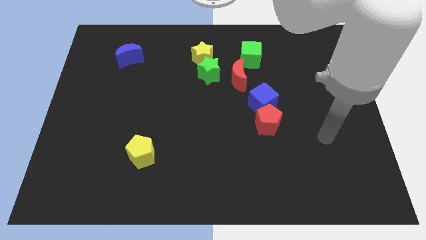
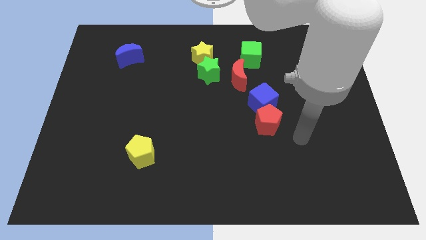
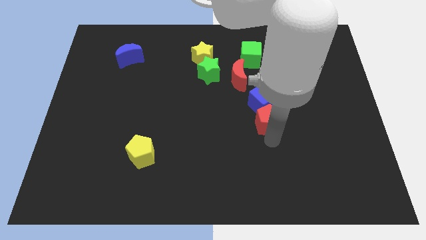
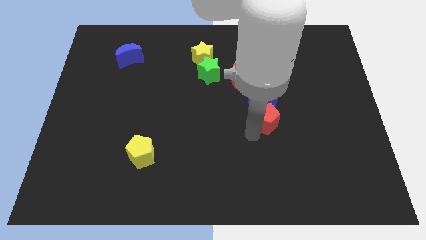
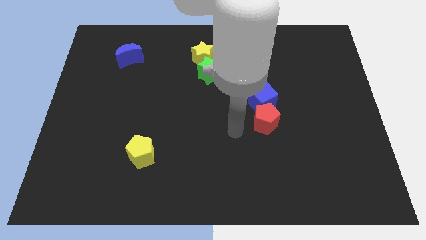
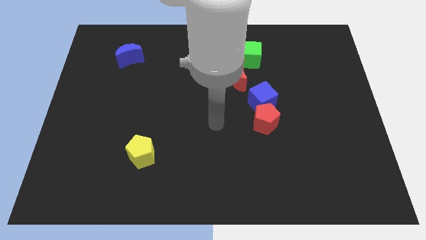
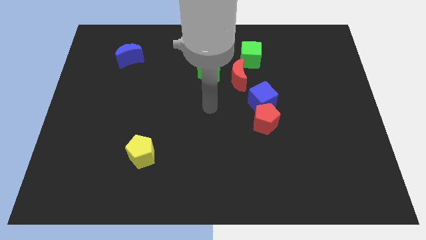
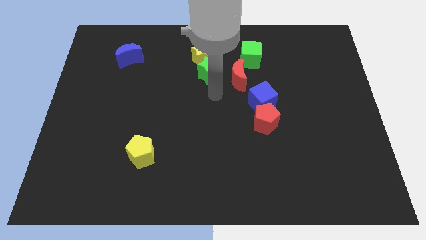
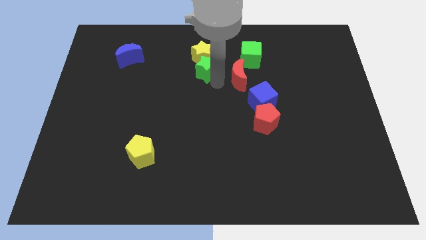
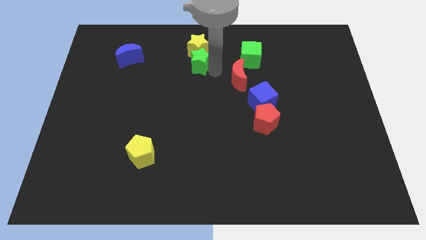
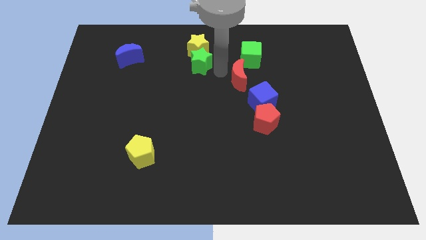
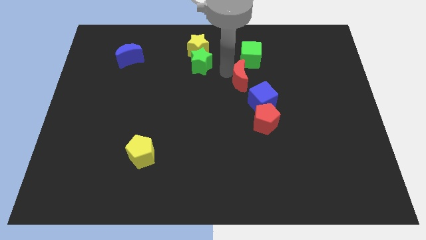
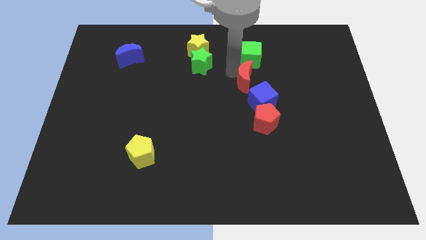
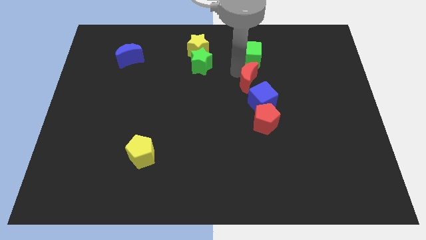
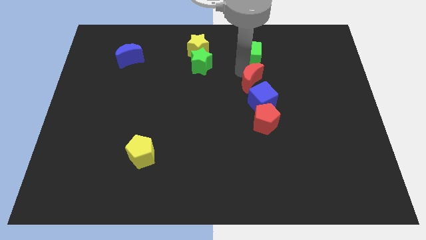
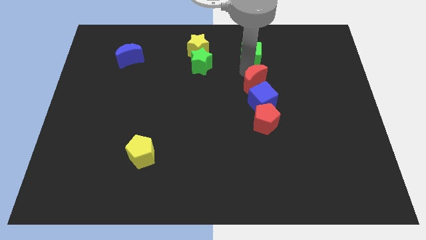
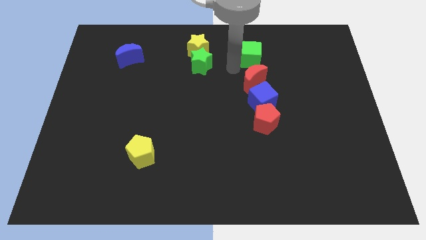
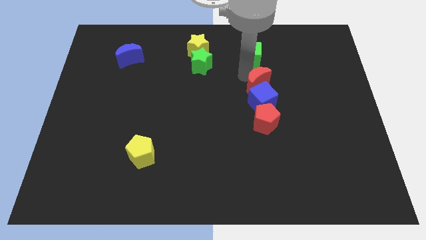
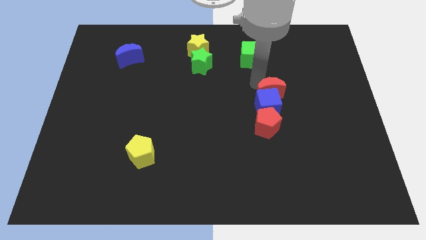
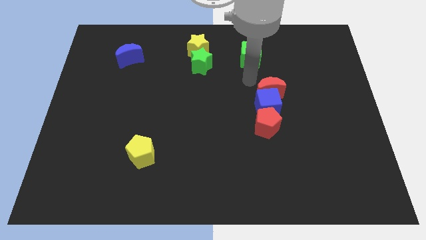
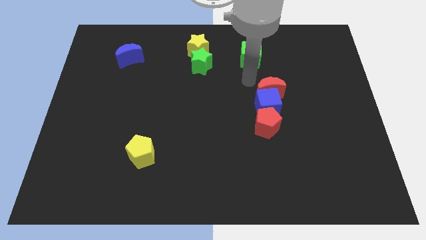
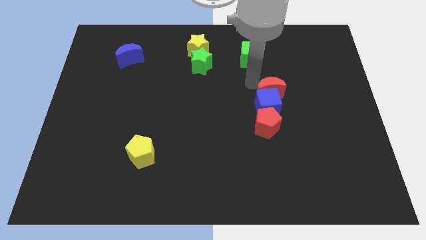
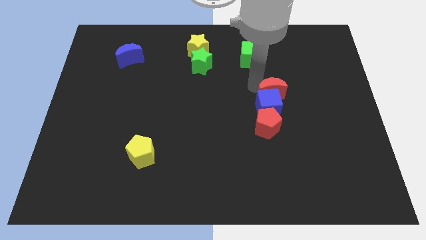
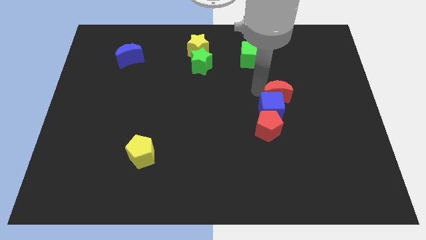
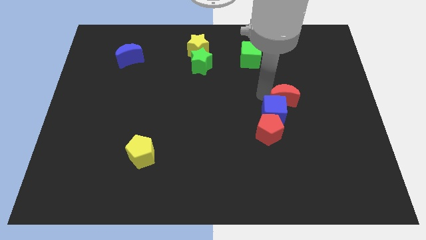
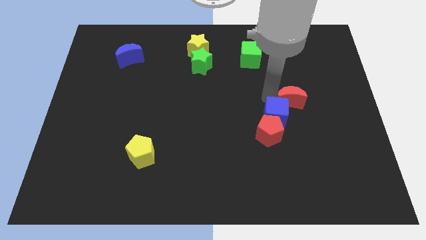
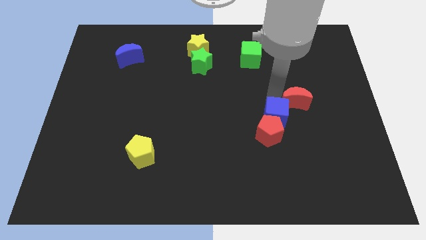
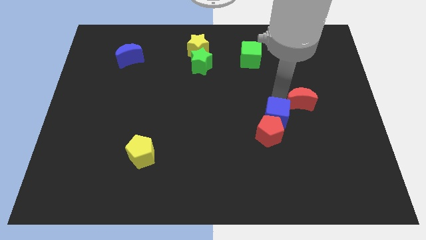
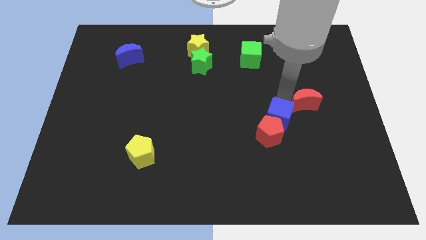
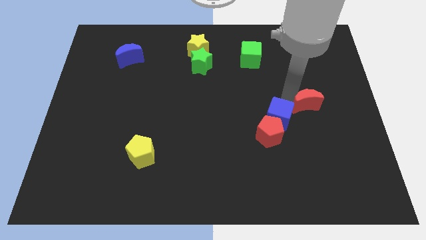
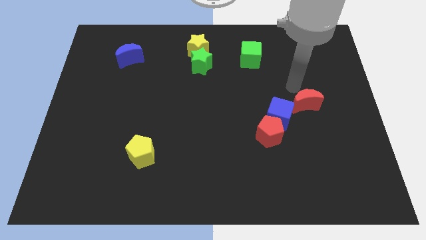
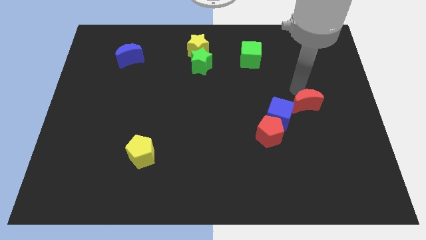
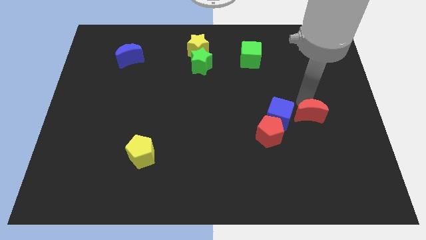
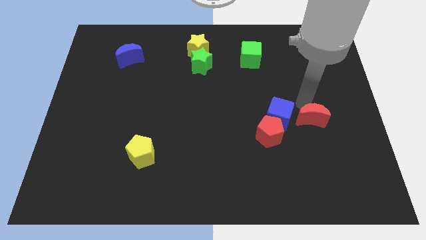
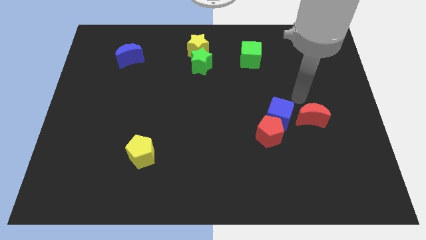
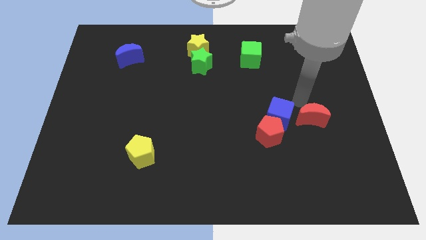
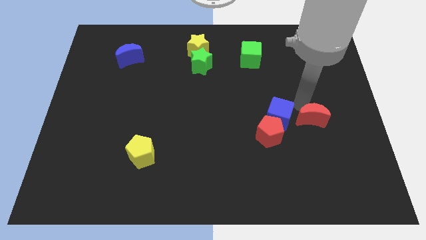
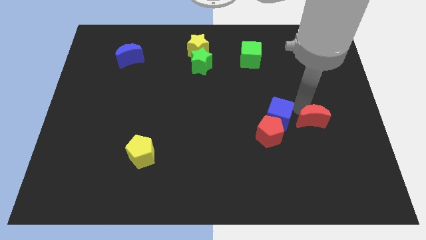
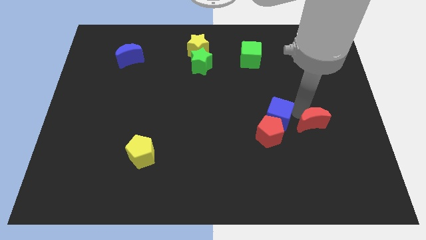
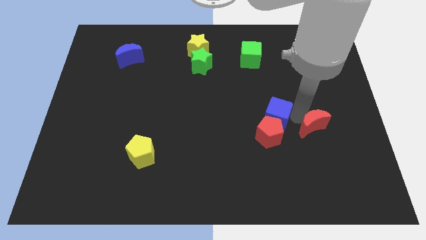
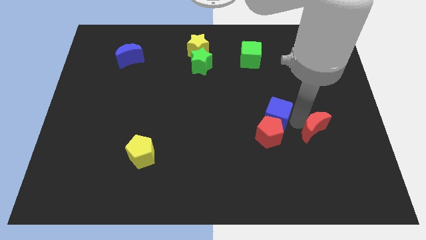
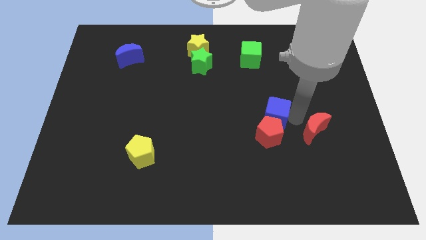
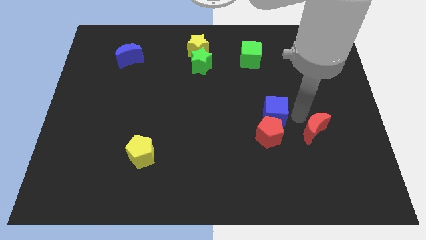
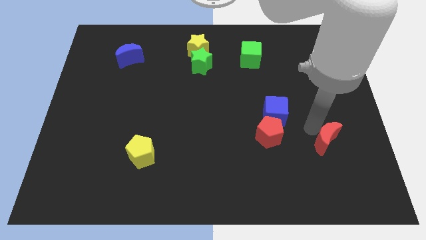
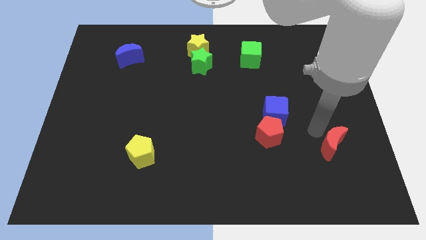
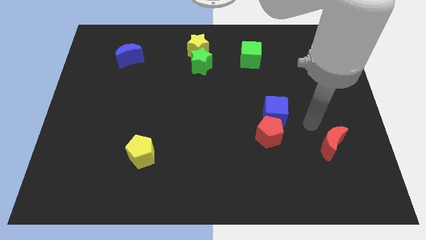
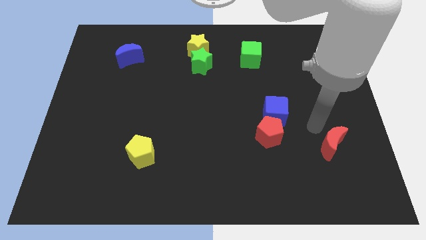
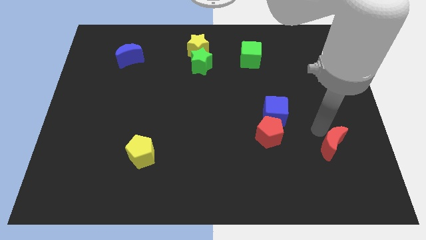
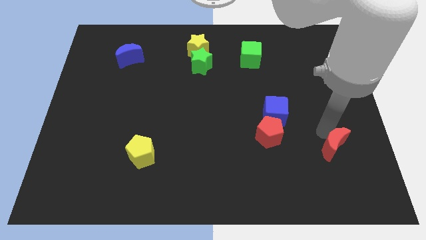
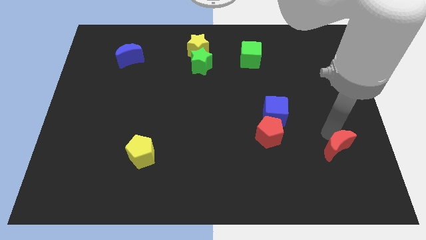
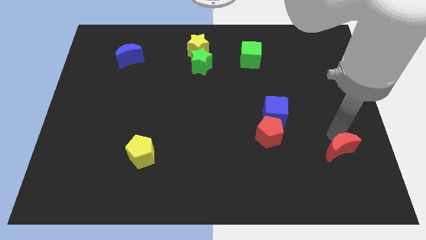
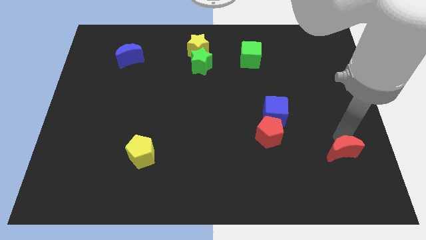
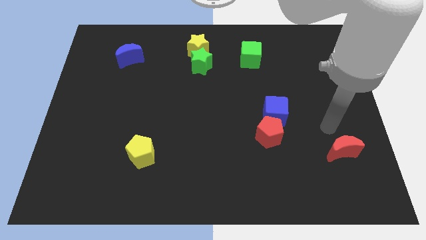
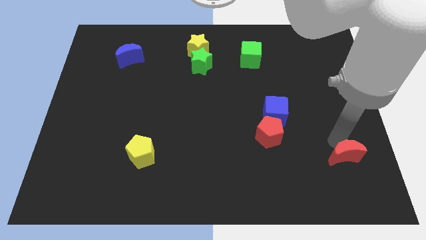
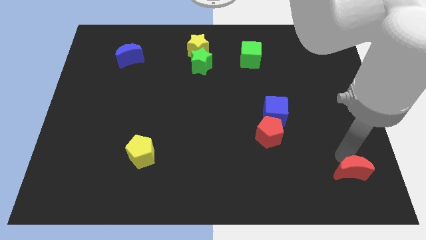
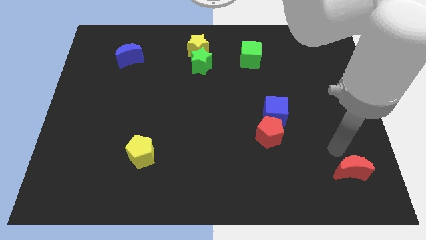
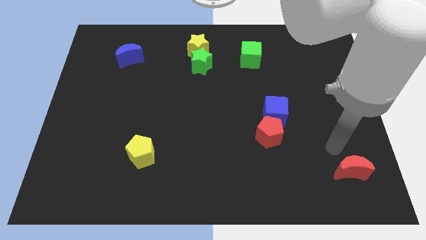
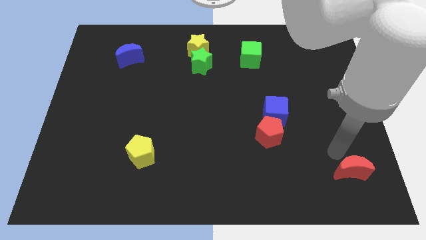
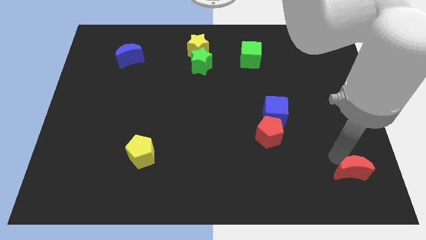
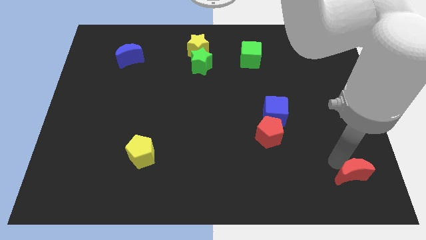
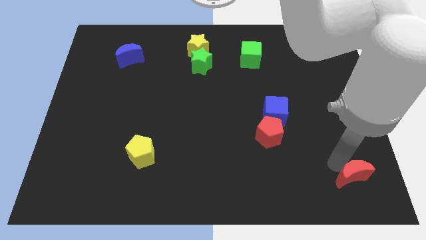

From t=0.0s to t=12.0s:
push the red moon to the bottom right

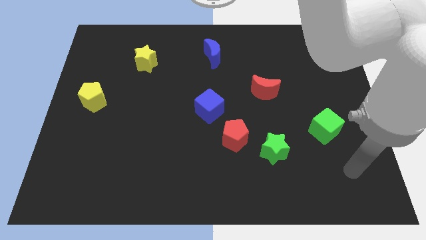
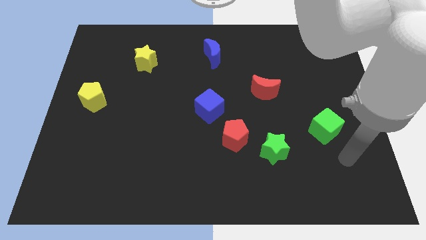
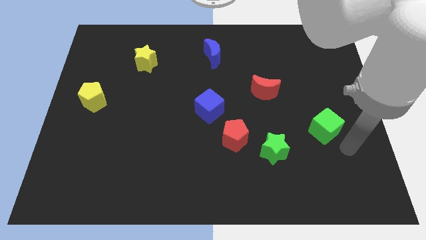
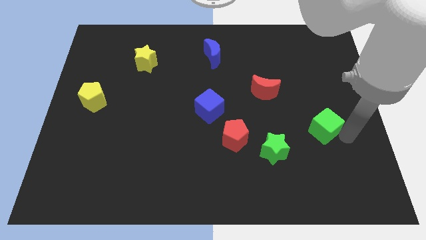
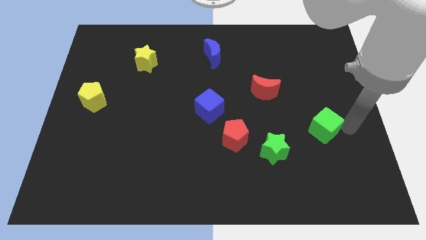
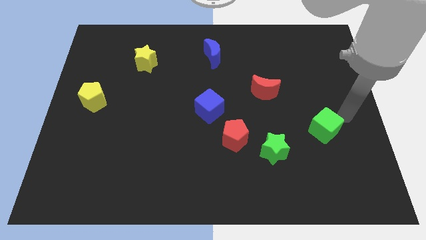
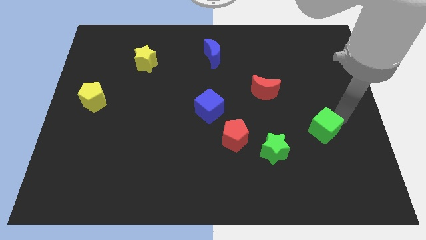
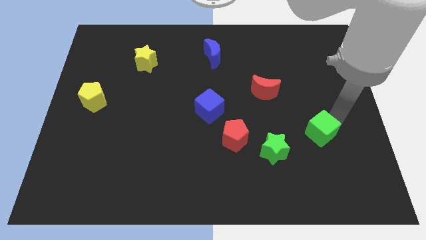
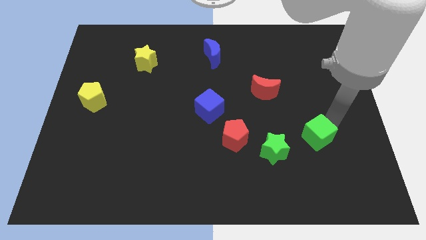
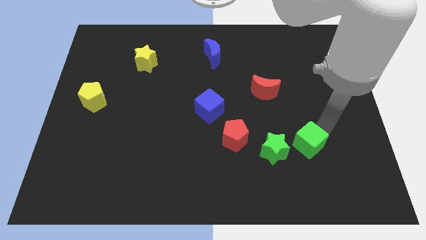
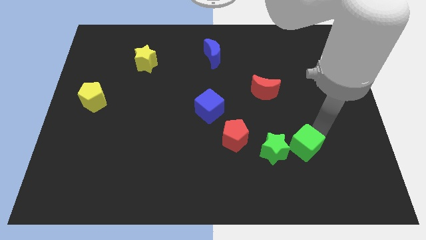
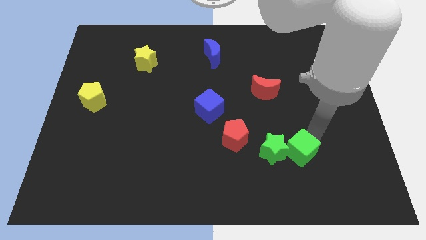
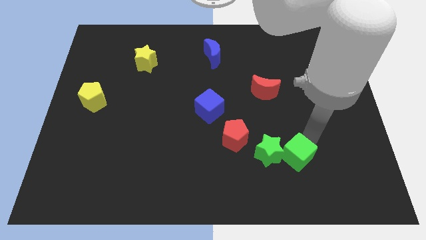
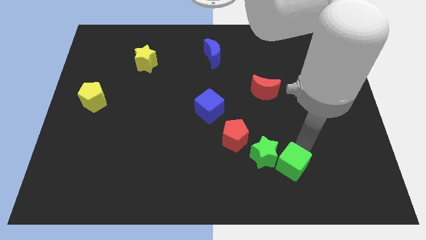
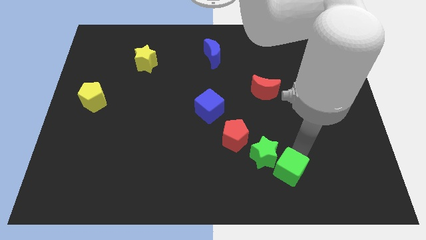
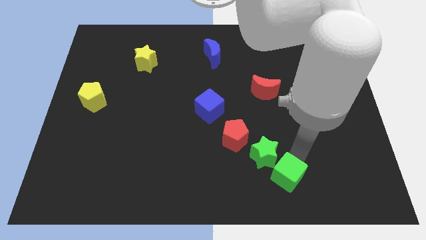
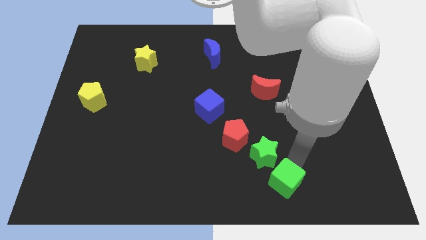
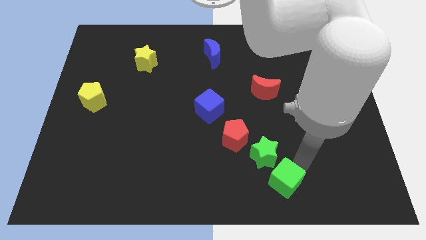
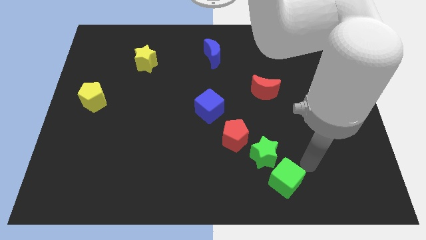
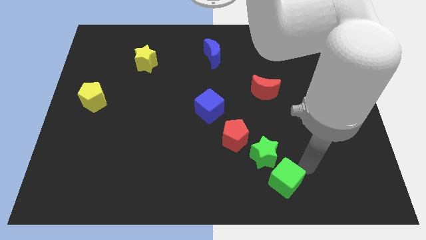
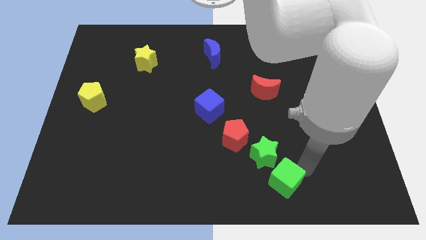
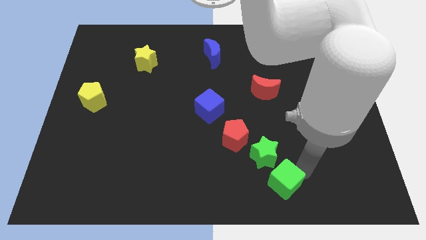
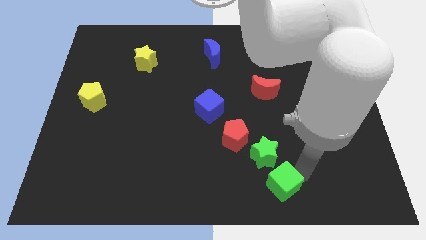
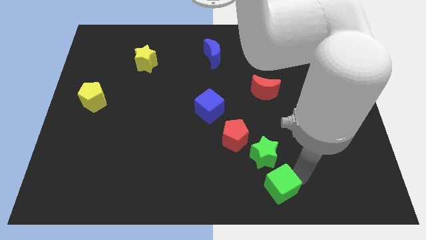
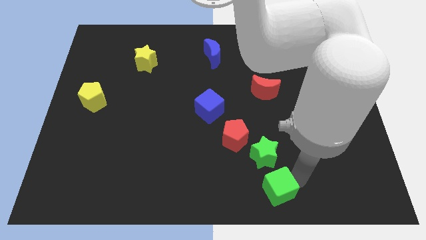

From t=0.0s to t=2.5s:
move the green cube to the bottom
